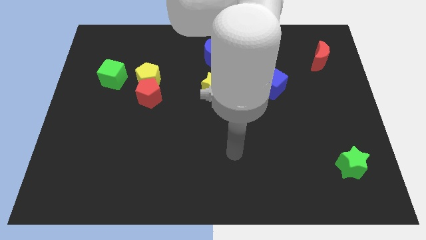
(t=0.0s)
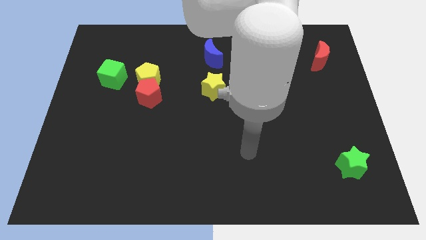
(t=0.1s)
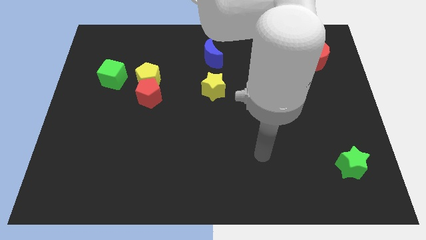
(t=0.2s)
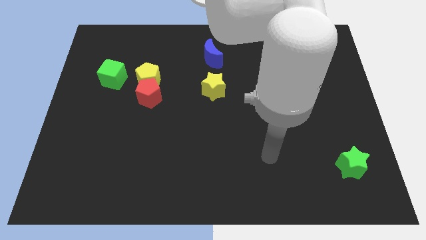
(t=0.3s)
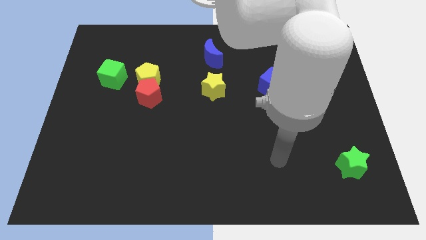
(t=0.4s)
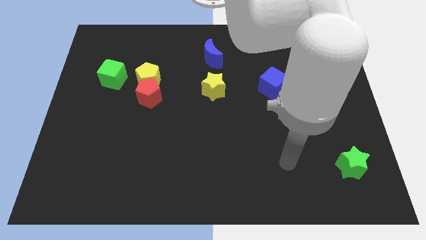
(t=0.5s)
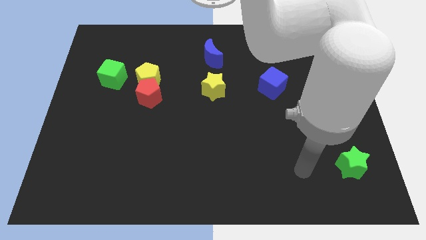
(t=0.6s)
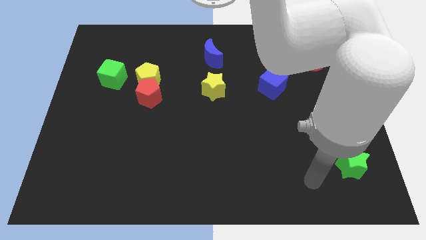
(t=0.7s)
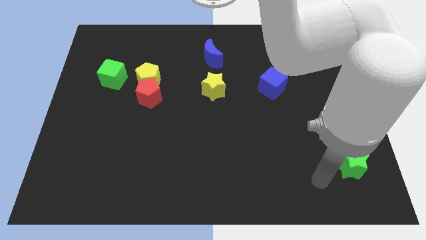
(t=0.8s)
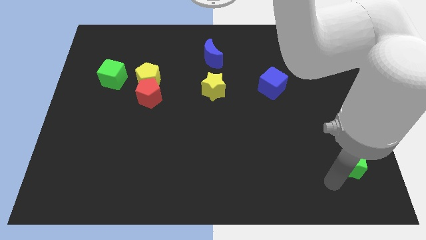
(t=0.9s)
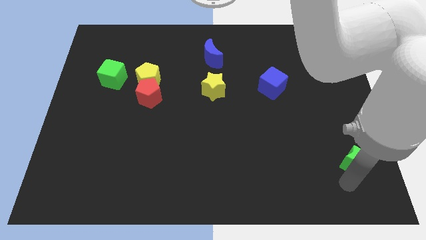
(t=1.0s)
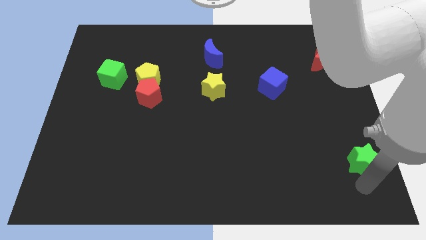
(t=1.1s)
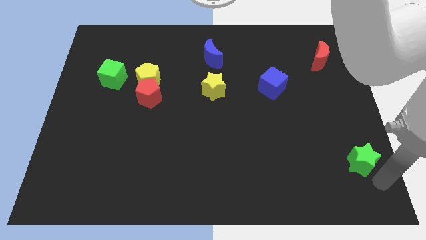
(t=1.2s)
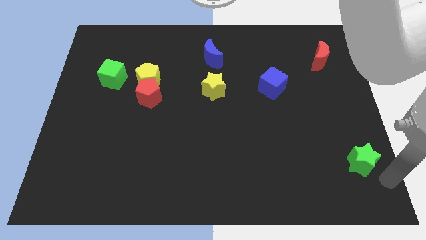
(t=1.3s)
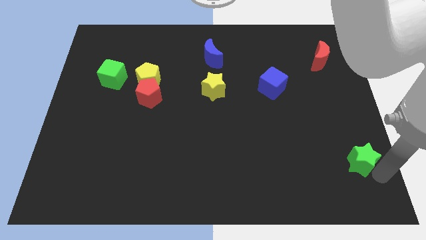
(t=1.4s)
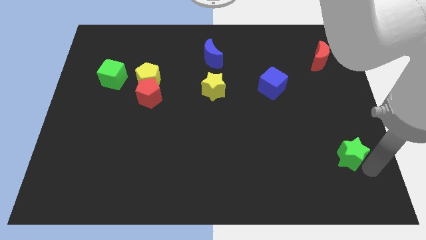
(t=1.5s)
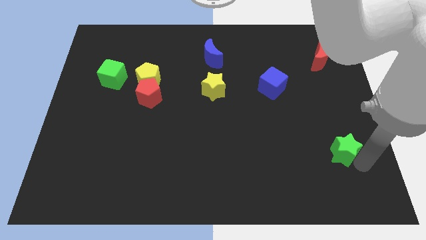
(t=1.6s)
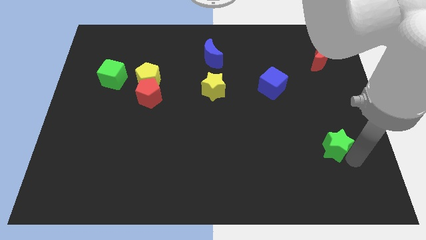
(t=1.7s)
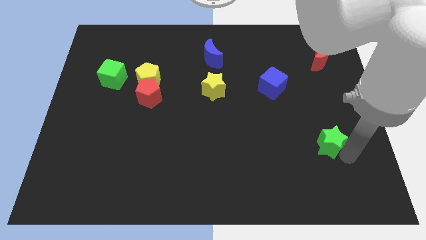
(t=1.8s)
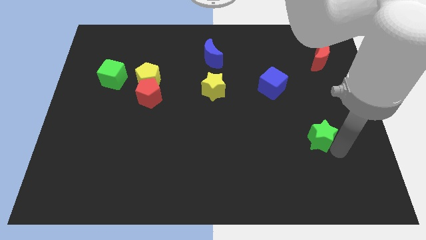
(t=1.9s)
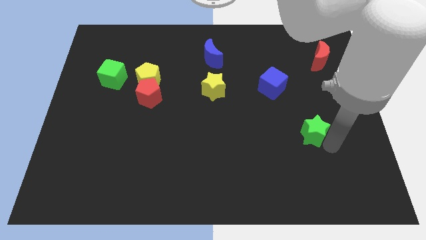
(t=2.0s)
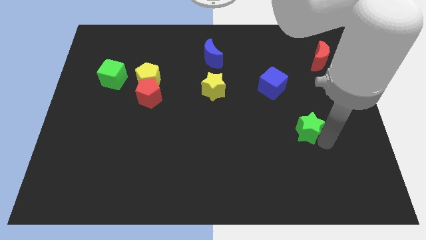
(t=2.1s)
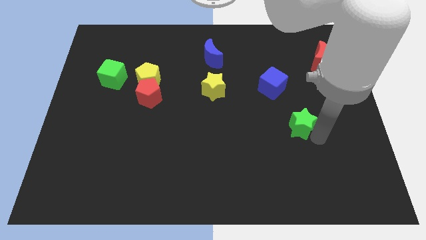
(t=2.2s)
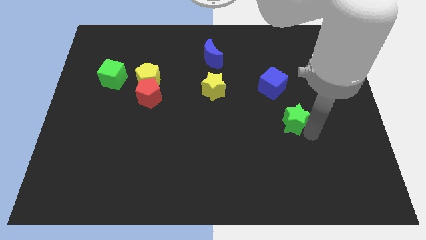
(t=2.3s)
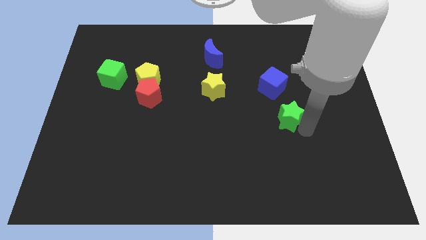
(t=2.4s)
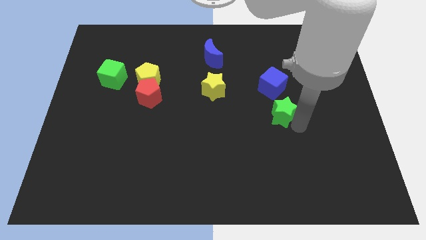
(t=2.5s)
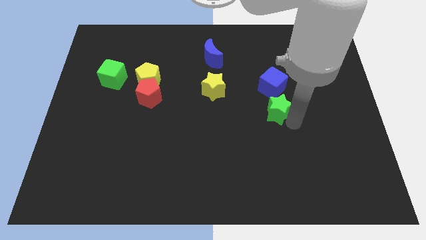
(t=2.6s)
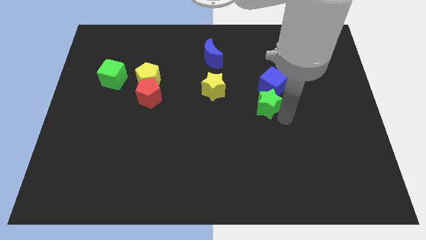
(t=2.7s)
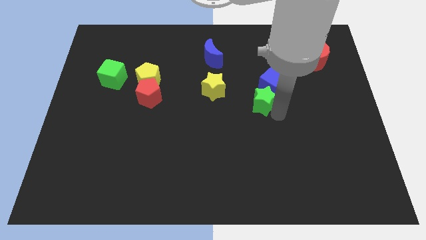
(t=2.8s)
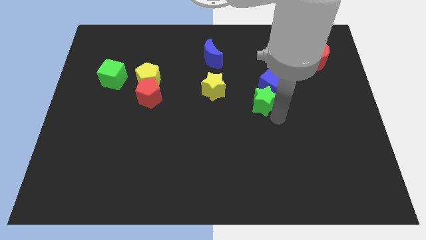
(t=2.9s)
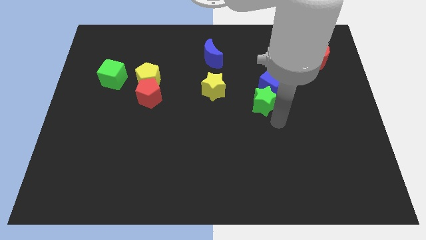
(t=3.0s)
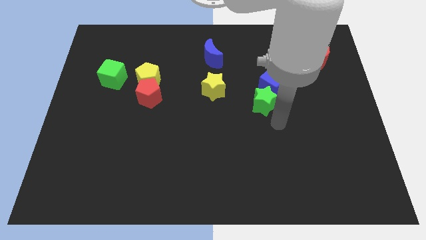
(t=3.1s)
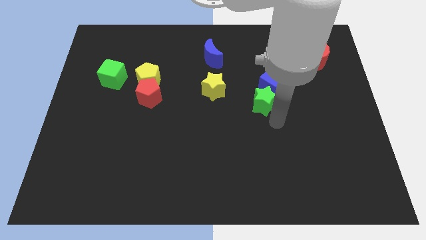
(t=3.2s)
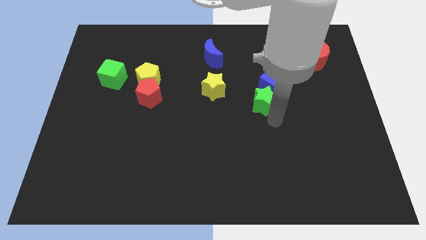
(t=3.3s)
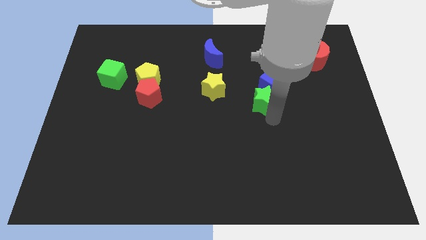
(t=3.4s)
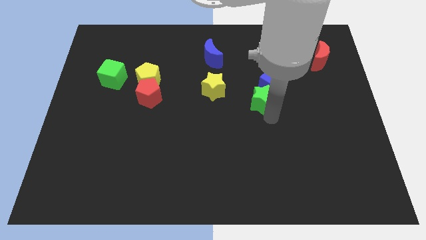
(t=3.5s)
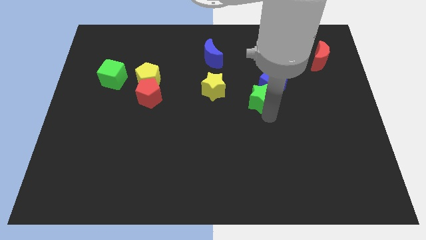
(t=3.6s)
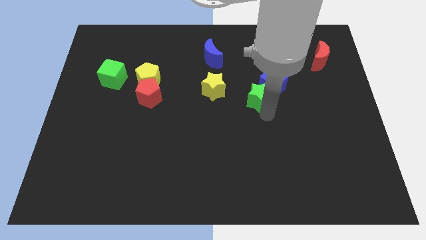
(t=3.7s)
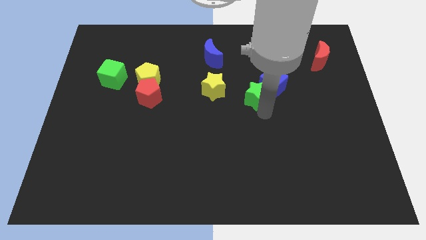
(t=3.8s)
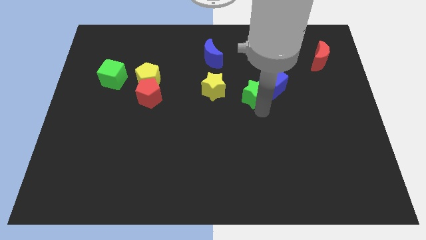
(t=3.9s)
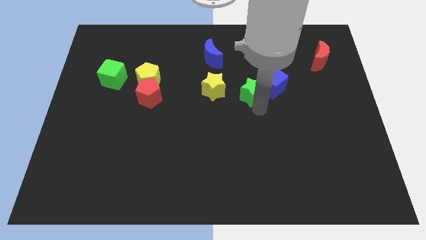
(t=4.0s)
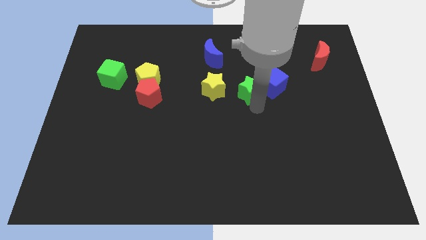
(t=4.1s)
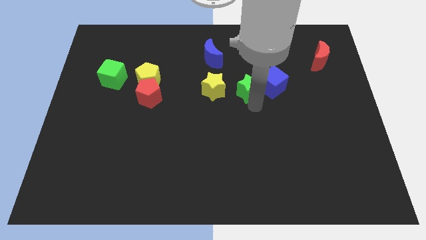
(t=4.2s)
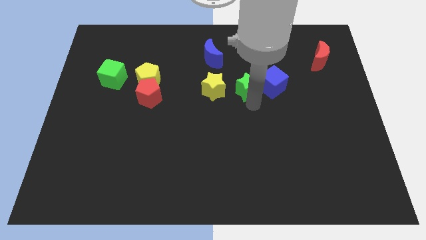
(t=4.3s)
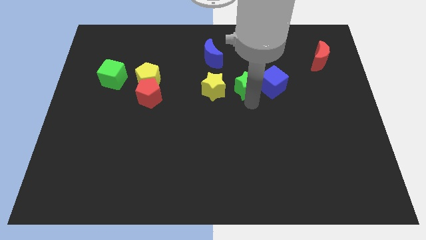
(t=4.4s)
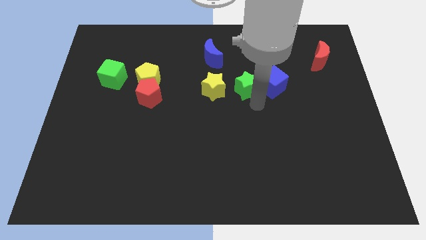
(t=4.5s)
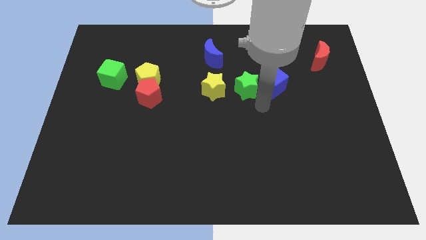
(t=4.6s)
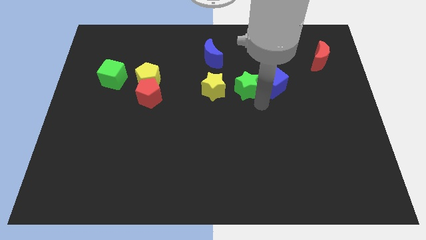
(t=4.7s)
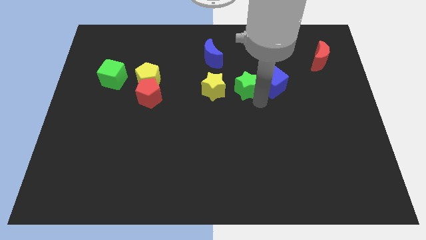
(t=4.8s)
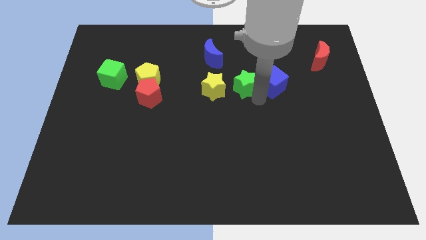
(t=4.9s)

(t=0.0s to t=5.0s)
push the green star to the bottom right of the blue moon

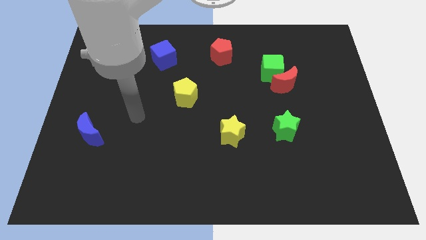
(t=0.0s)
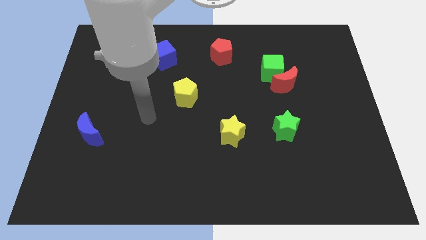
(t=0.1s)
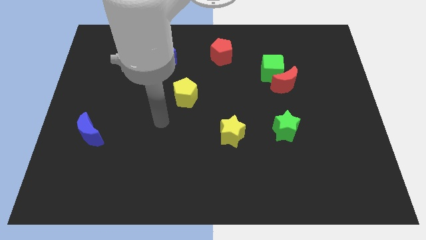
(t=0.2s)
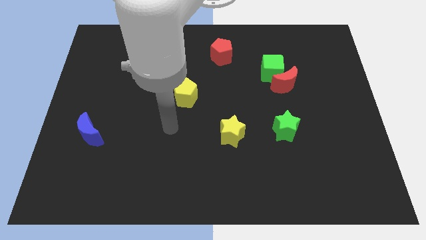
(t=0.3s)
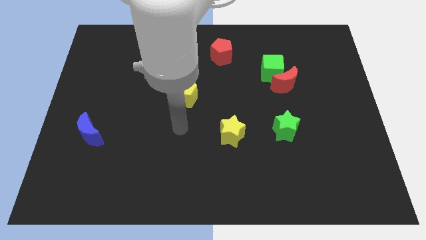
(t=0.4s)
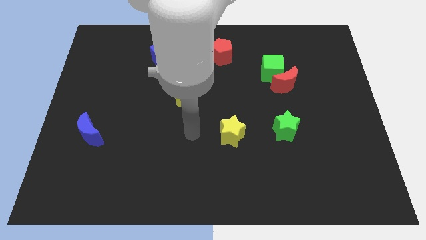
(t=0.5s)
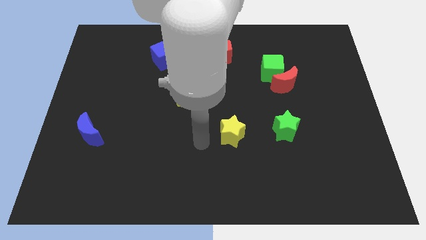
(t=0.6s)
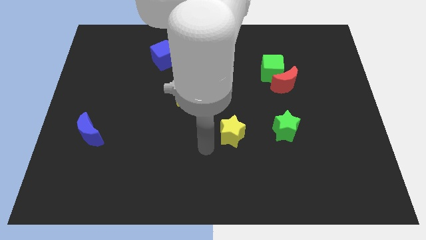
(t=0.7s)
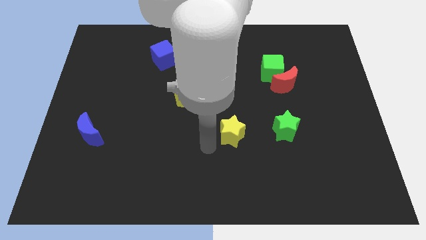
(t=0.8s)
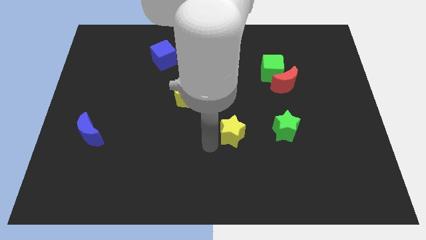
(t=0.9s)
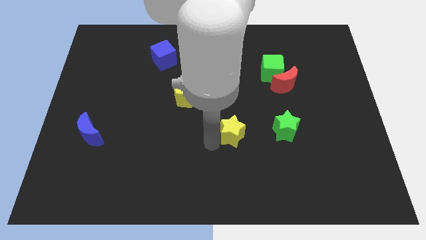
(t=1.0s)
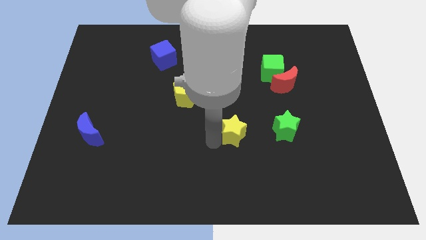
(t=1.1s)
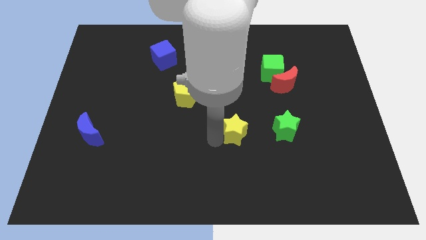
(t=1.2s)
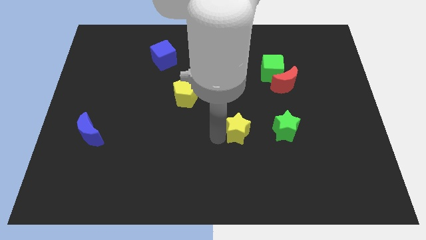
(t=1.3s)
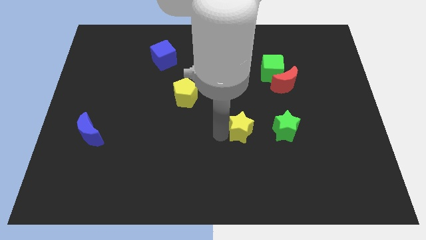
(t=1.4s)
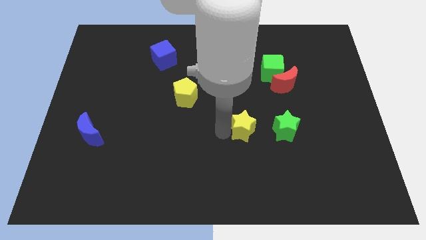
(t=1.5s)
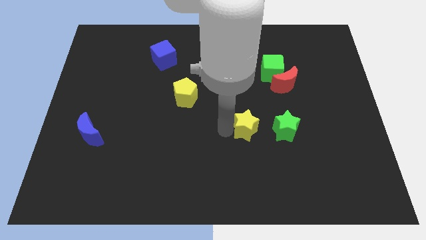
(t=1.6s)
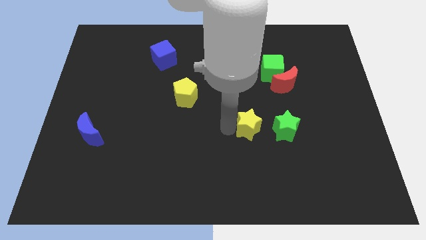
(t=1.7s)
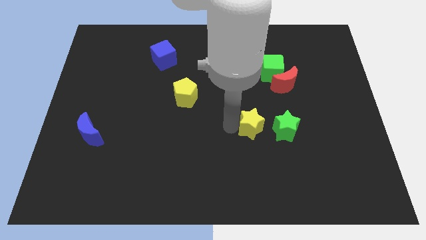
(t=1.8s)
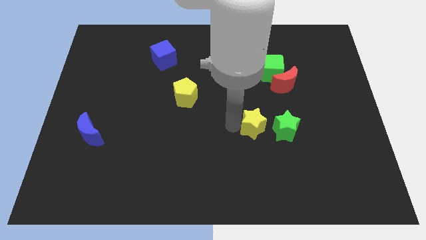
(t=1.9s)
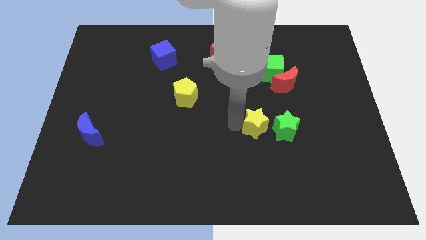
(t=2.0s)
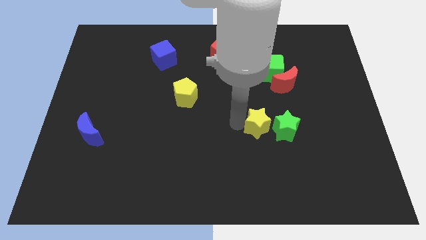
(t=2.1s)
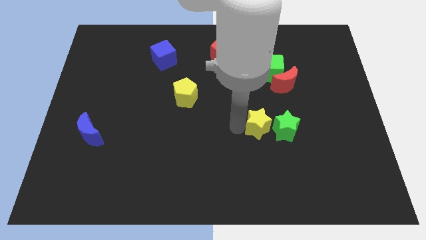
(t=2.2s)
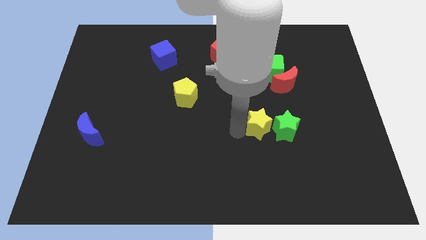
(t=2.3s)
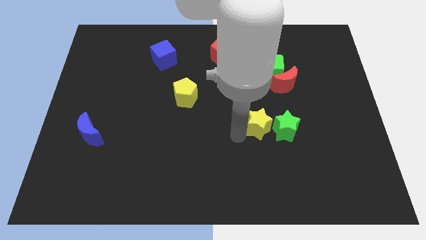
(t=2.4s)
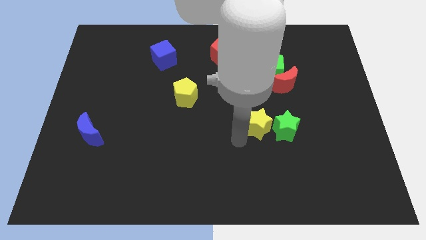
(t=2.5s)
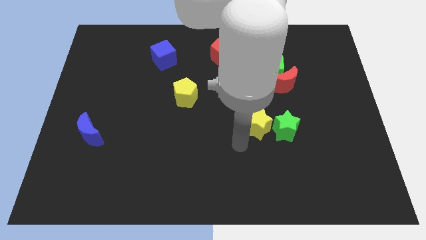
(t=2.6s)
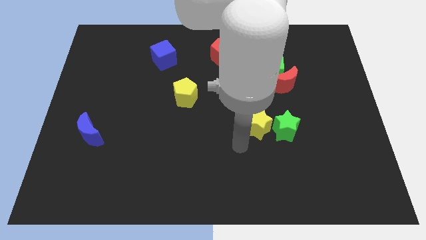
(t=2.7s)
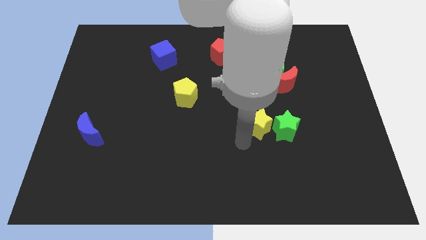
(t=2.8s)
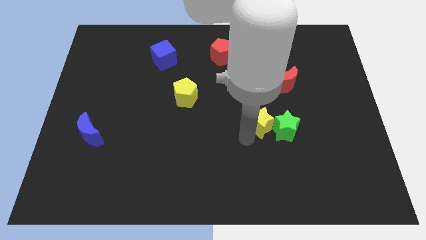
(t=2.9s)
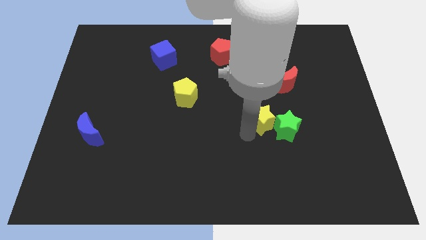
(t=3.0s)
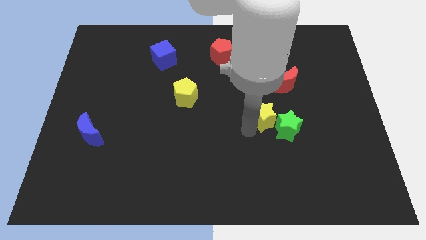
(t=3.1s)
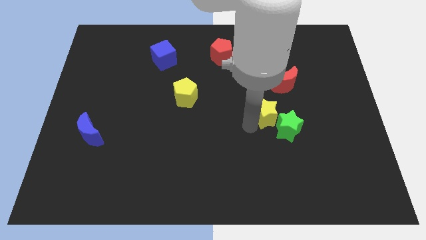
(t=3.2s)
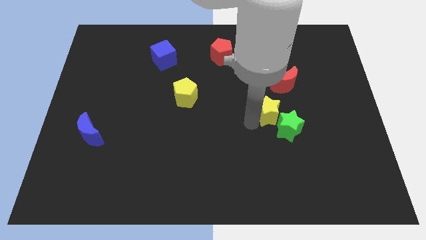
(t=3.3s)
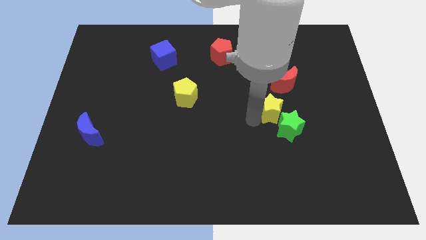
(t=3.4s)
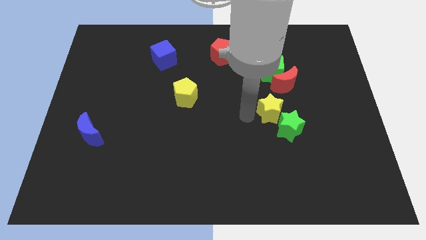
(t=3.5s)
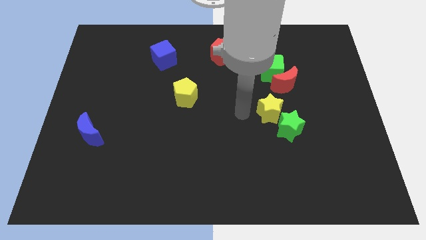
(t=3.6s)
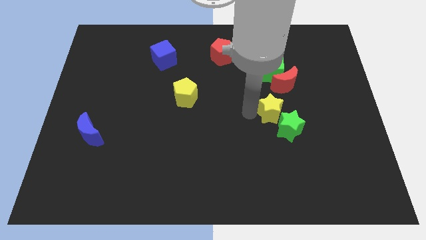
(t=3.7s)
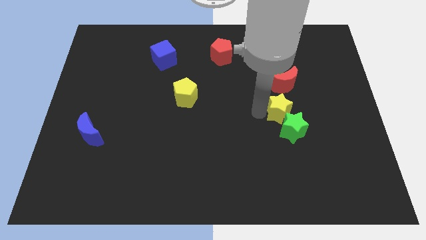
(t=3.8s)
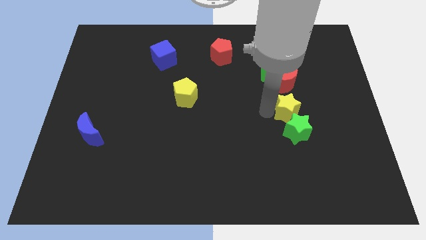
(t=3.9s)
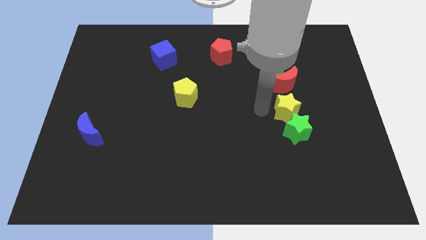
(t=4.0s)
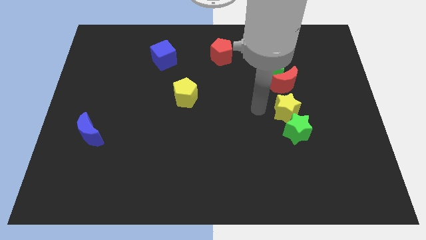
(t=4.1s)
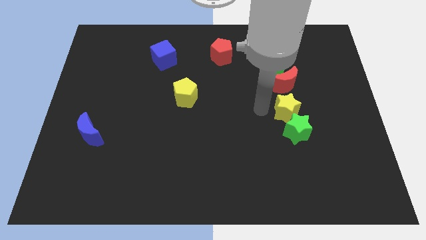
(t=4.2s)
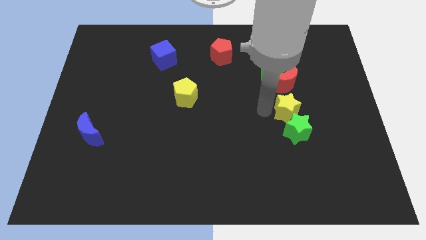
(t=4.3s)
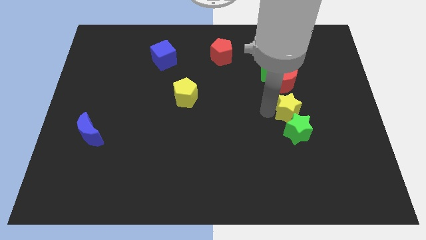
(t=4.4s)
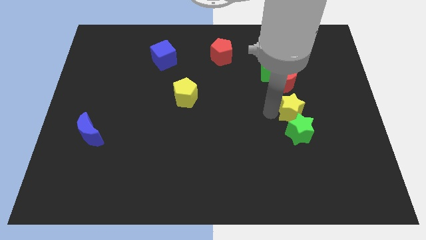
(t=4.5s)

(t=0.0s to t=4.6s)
put the yellow star diagonally up and to the right of the green star
